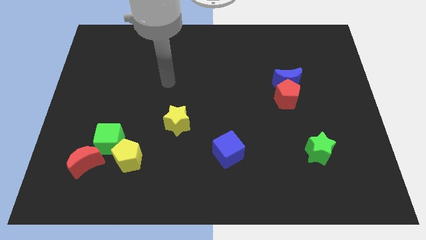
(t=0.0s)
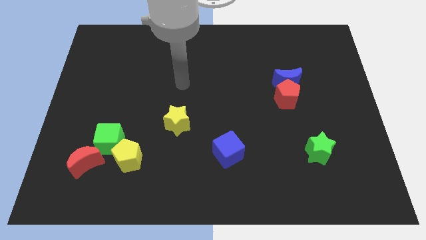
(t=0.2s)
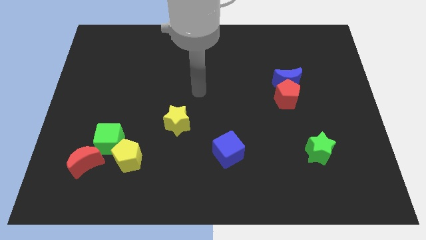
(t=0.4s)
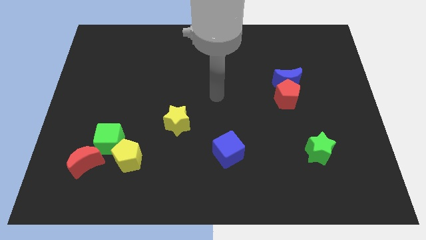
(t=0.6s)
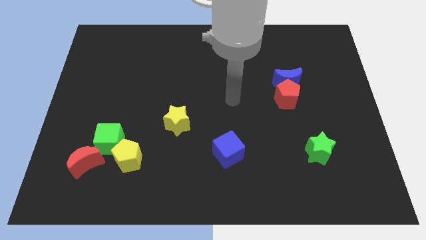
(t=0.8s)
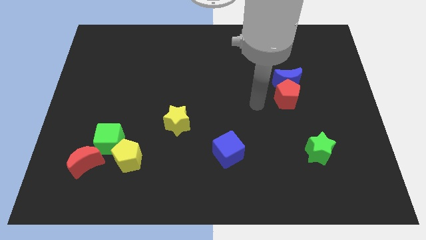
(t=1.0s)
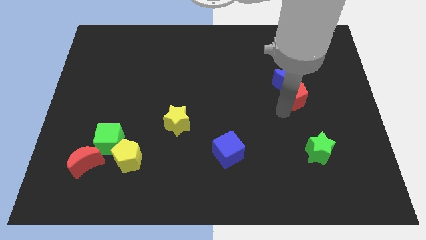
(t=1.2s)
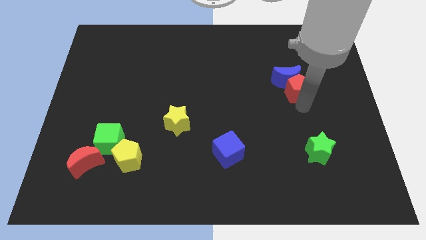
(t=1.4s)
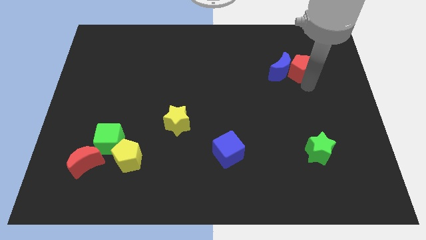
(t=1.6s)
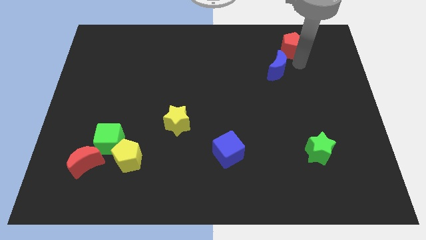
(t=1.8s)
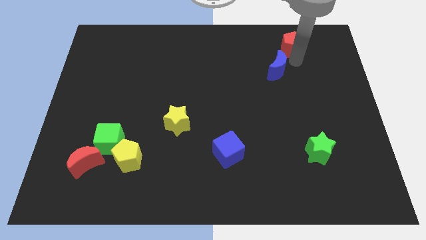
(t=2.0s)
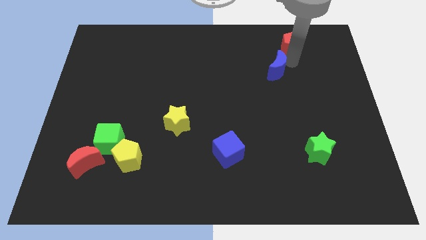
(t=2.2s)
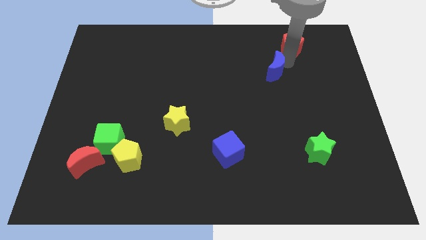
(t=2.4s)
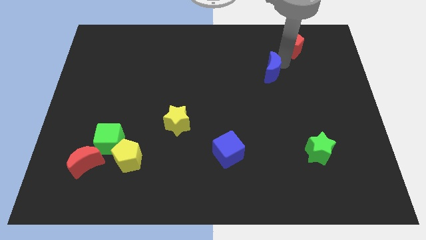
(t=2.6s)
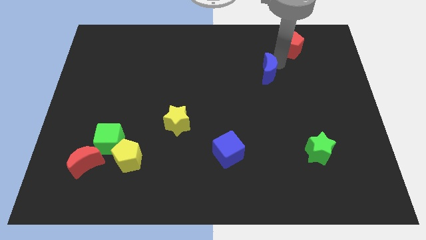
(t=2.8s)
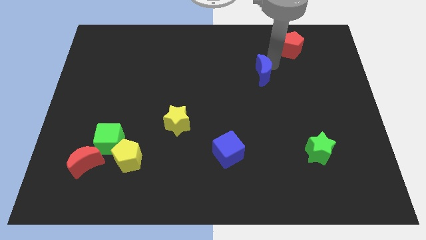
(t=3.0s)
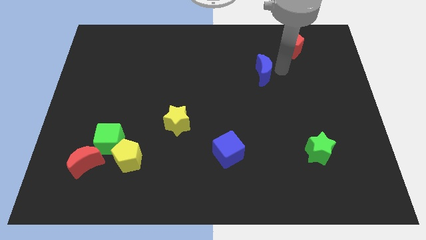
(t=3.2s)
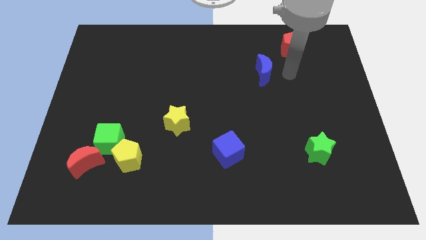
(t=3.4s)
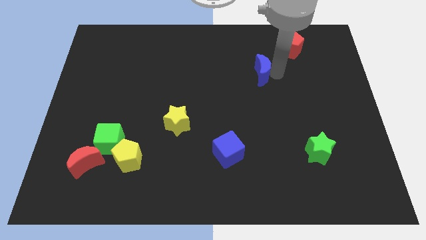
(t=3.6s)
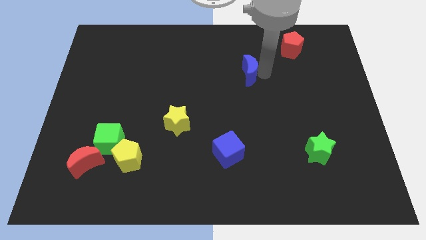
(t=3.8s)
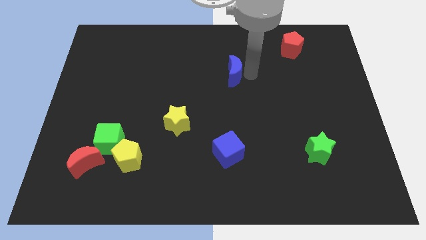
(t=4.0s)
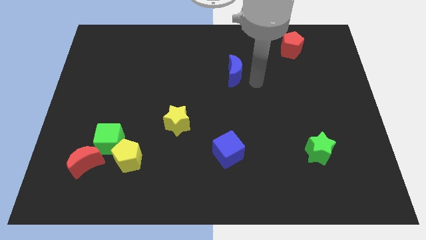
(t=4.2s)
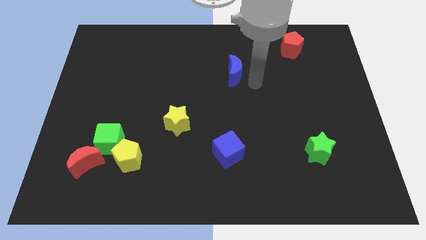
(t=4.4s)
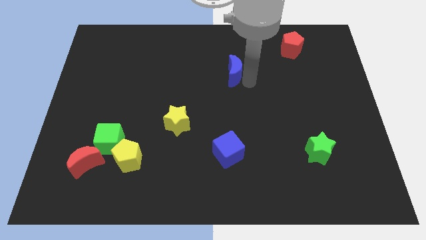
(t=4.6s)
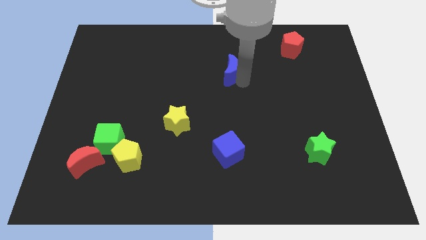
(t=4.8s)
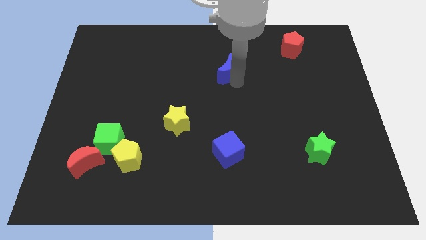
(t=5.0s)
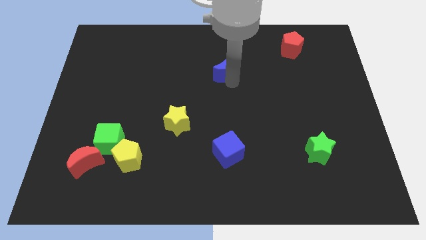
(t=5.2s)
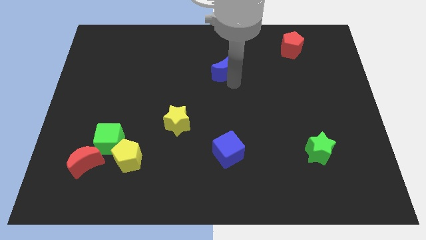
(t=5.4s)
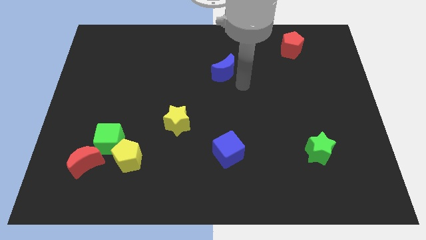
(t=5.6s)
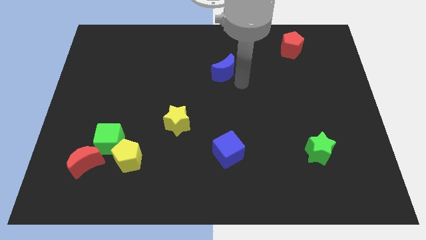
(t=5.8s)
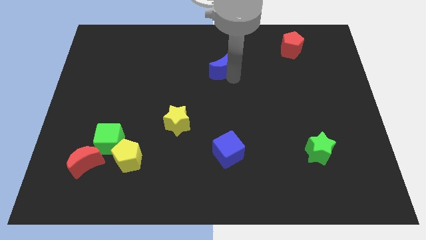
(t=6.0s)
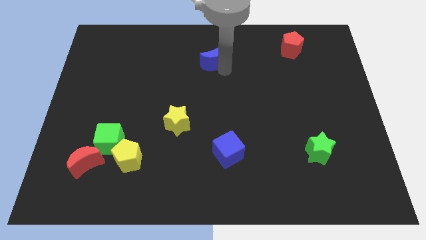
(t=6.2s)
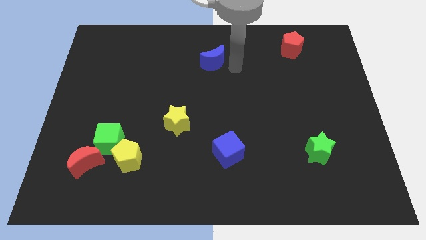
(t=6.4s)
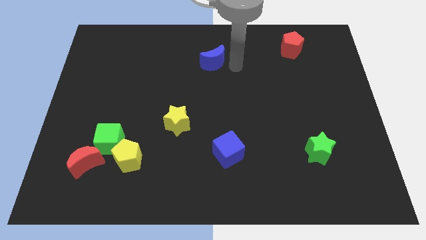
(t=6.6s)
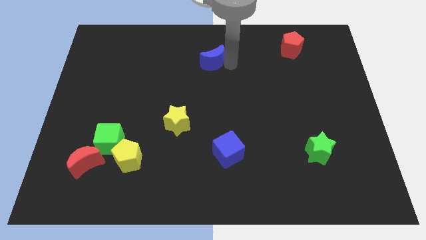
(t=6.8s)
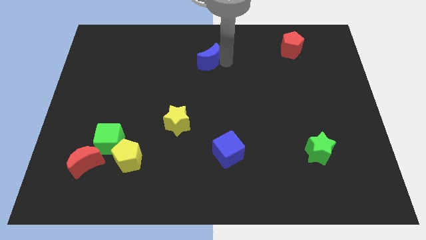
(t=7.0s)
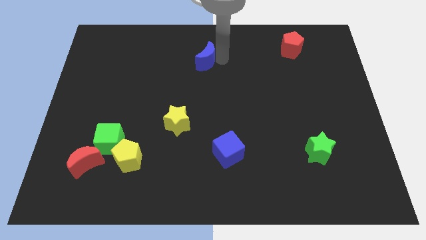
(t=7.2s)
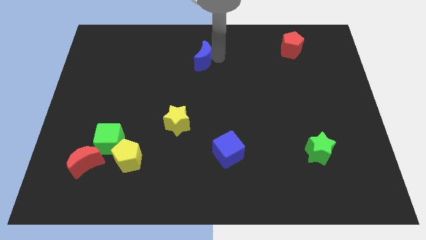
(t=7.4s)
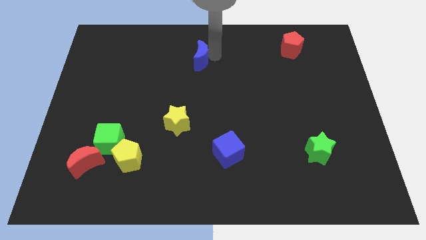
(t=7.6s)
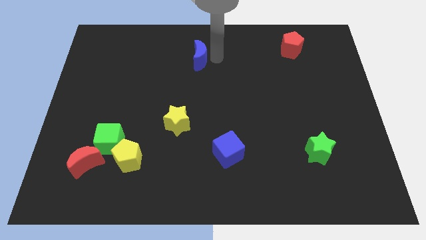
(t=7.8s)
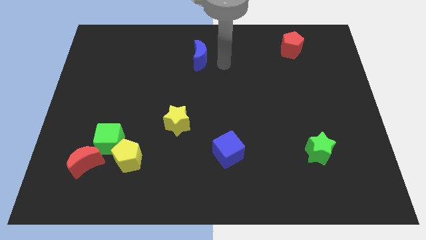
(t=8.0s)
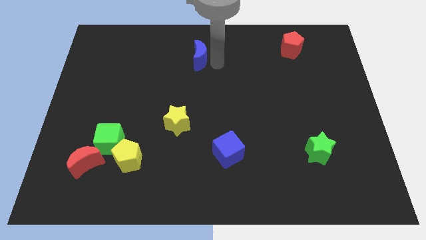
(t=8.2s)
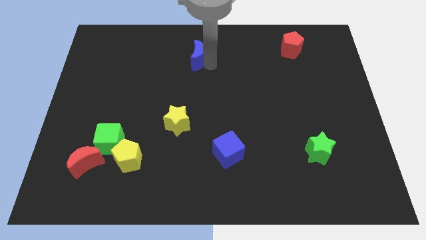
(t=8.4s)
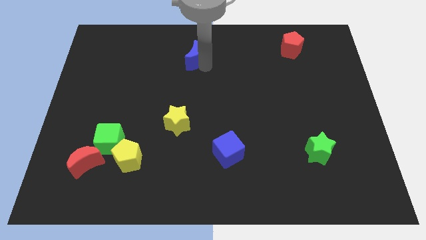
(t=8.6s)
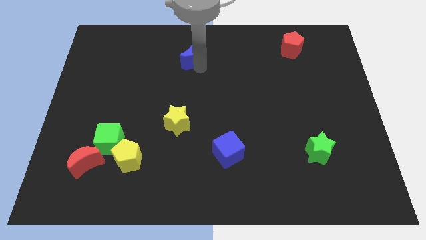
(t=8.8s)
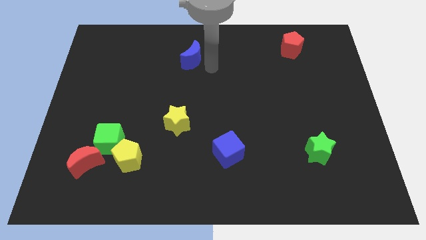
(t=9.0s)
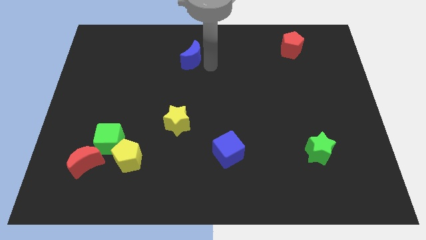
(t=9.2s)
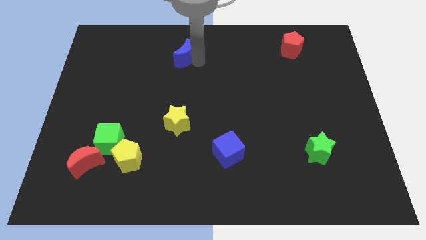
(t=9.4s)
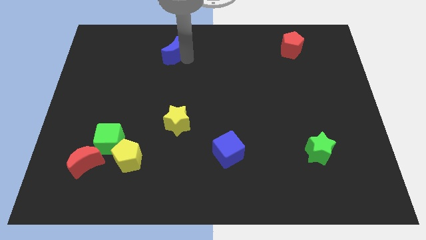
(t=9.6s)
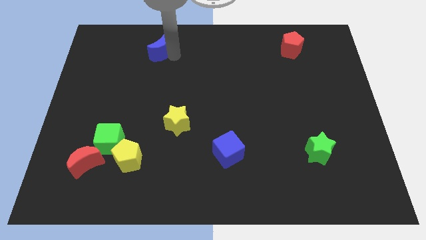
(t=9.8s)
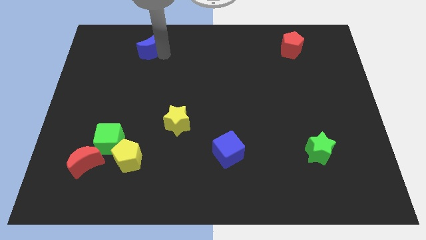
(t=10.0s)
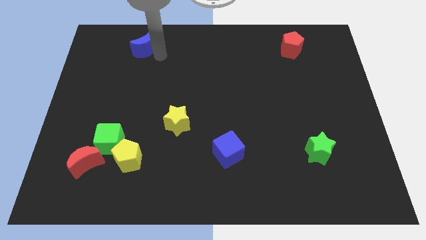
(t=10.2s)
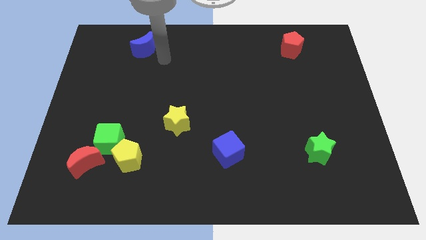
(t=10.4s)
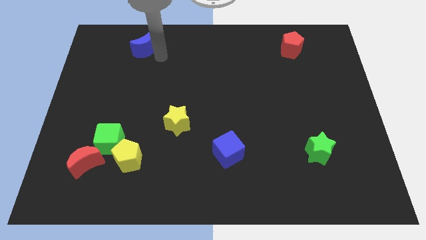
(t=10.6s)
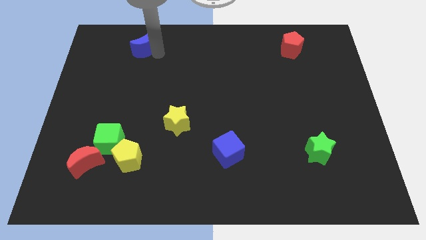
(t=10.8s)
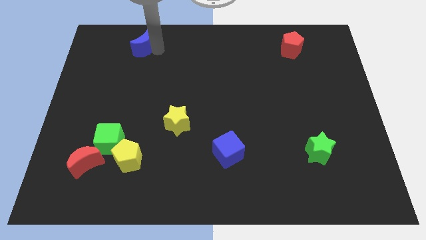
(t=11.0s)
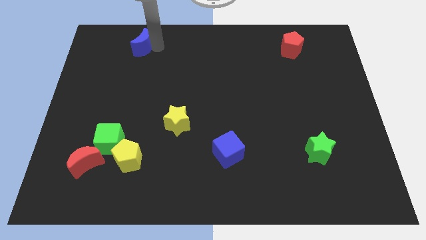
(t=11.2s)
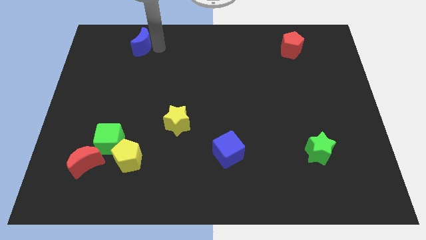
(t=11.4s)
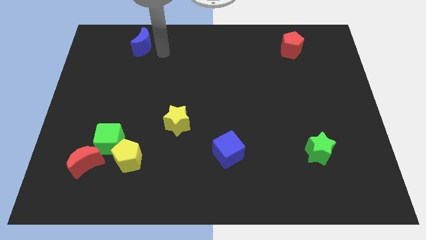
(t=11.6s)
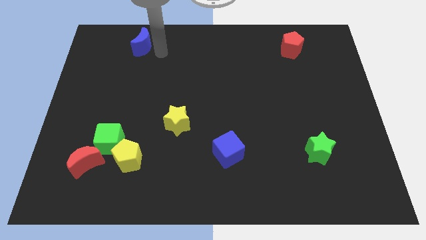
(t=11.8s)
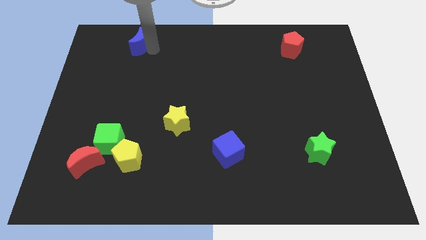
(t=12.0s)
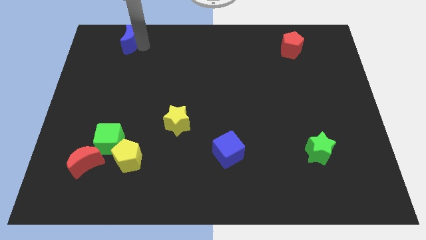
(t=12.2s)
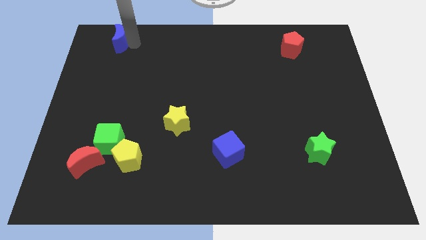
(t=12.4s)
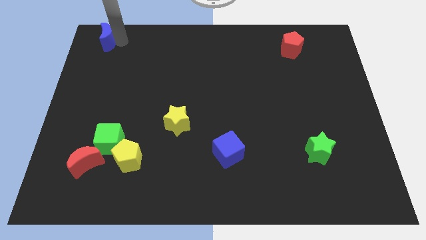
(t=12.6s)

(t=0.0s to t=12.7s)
slide the blue moon to the top left

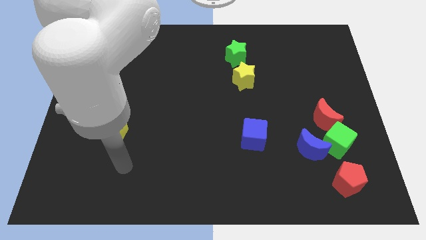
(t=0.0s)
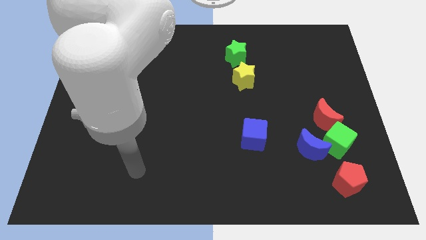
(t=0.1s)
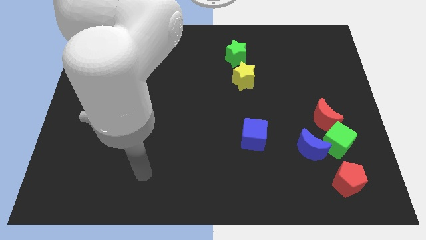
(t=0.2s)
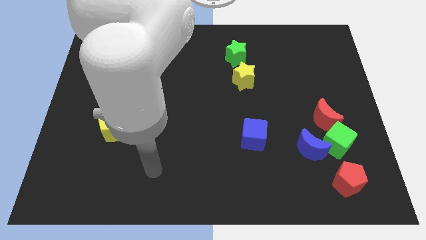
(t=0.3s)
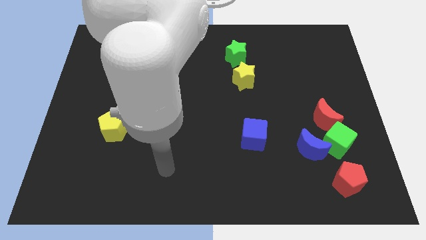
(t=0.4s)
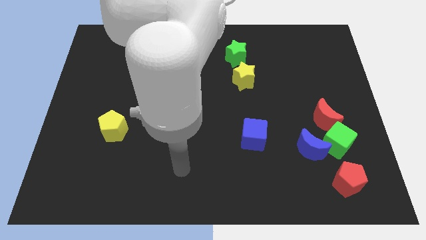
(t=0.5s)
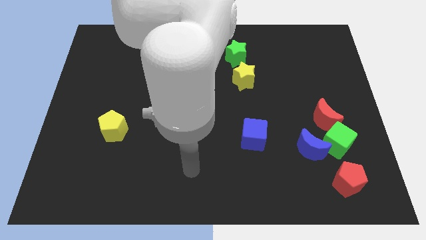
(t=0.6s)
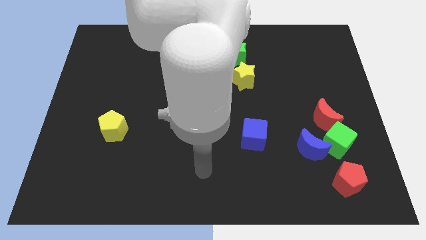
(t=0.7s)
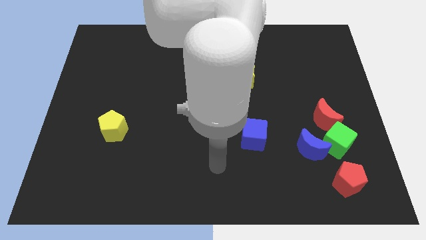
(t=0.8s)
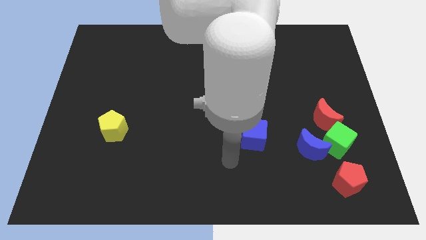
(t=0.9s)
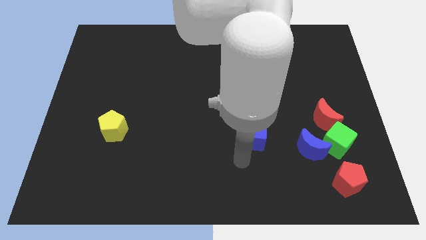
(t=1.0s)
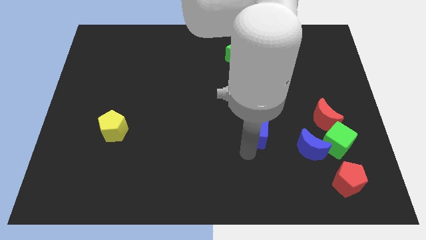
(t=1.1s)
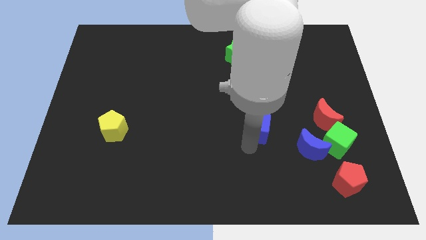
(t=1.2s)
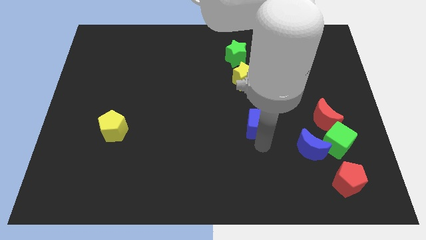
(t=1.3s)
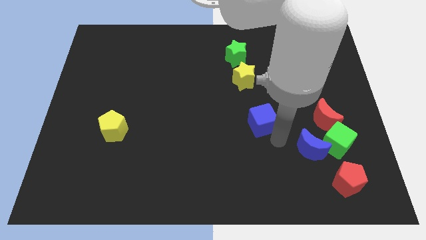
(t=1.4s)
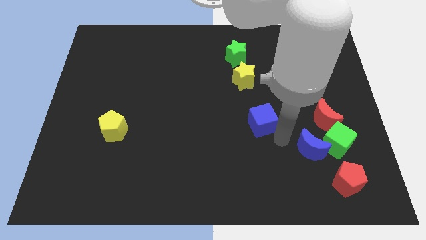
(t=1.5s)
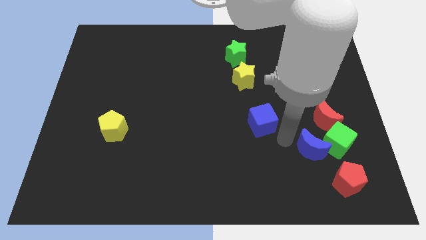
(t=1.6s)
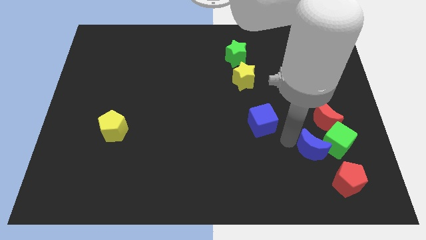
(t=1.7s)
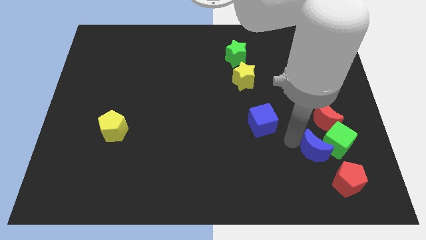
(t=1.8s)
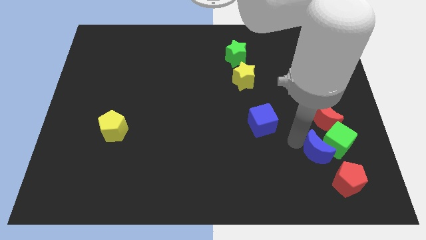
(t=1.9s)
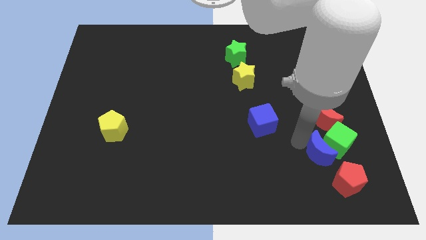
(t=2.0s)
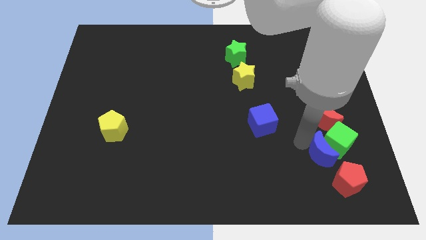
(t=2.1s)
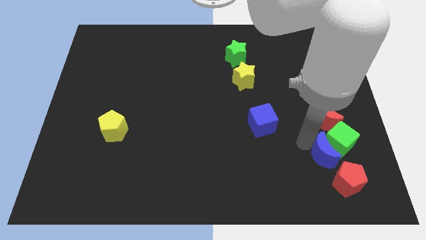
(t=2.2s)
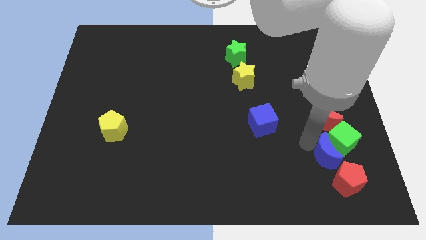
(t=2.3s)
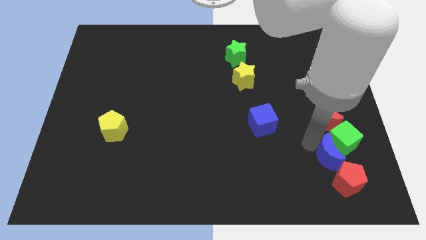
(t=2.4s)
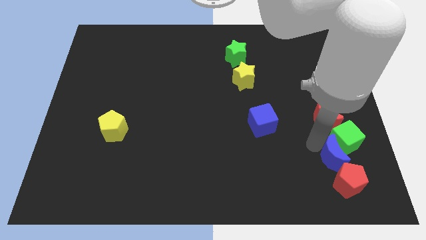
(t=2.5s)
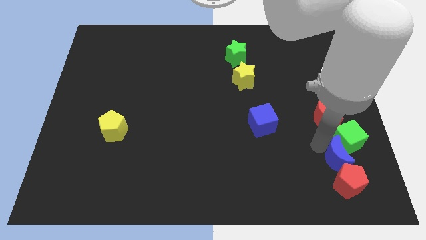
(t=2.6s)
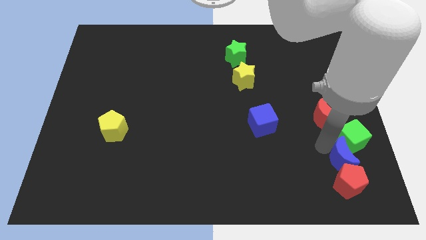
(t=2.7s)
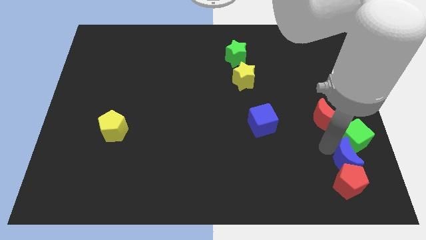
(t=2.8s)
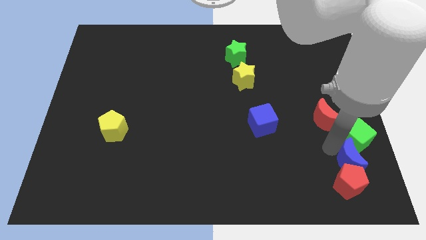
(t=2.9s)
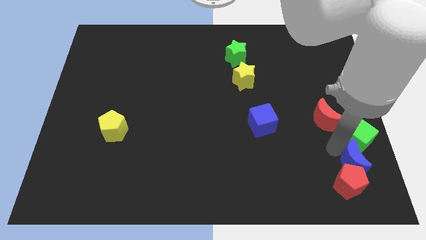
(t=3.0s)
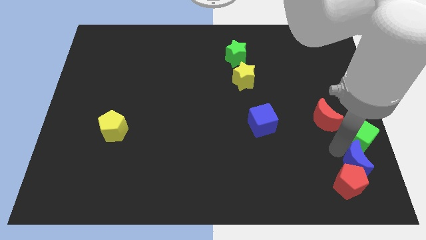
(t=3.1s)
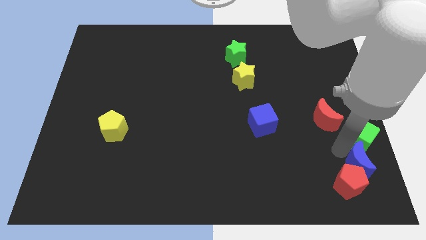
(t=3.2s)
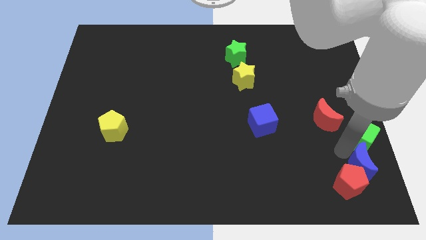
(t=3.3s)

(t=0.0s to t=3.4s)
move the blue moon to the bottom right of the board
